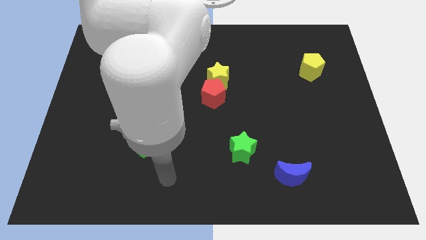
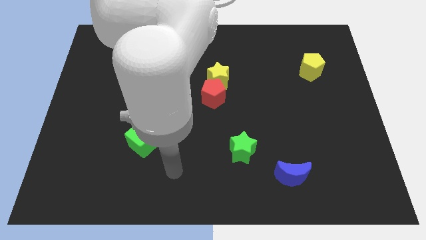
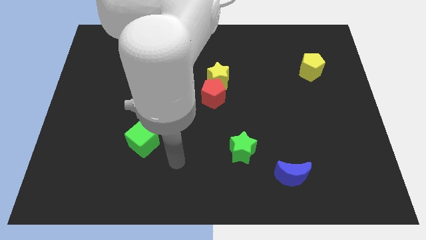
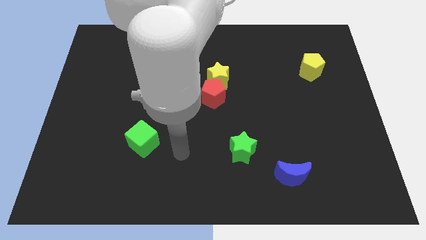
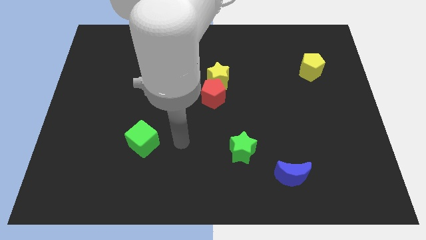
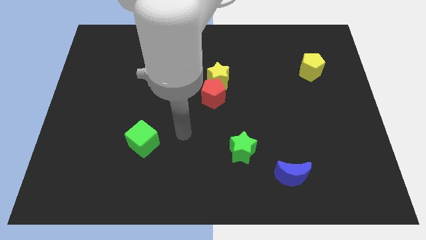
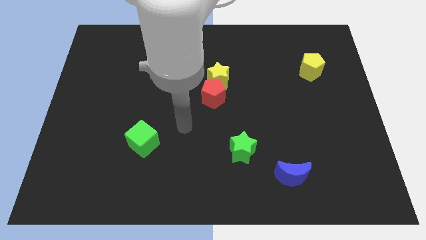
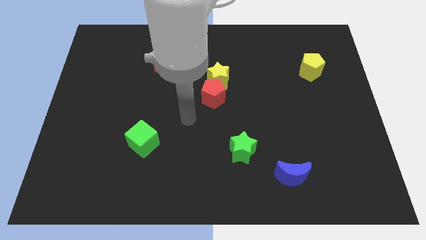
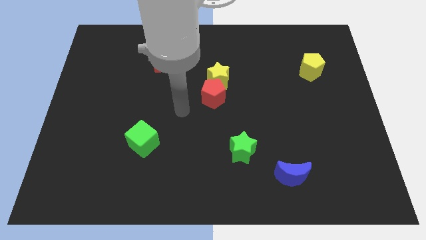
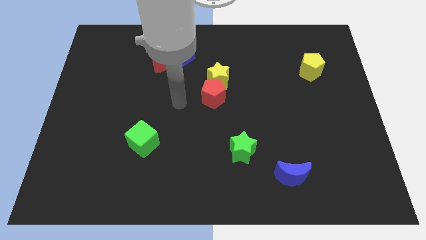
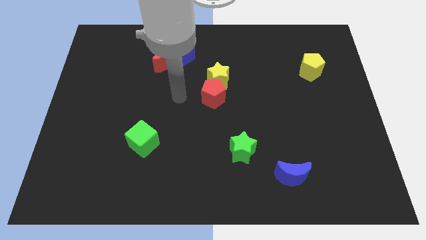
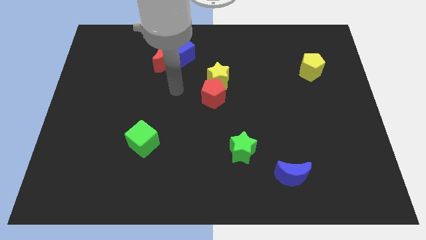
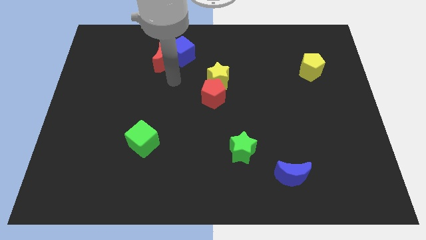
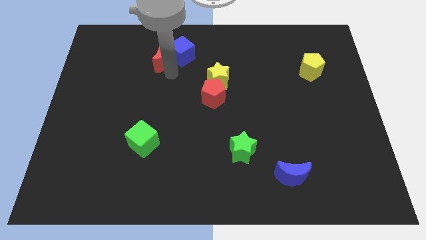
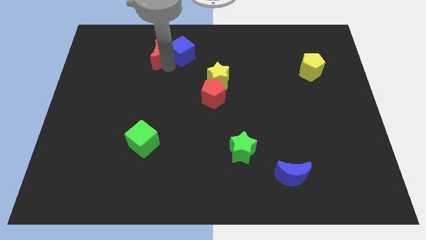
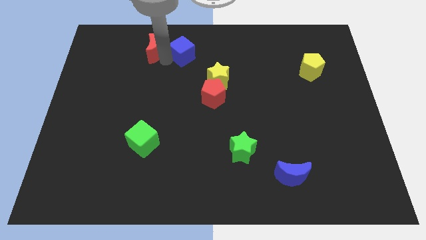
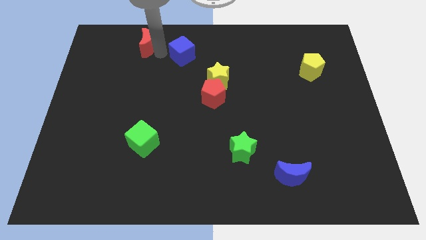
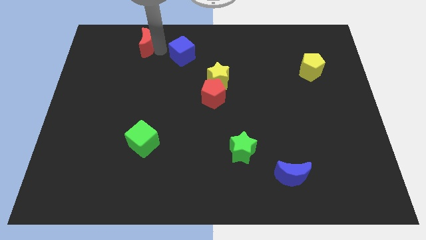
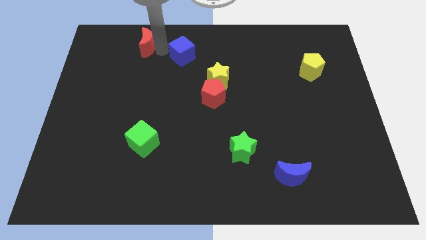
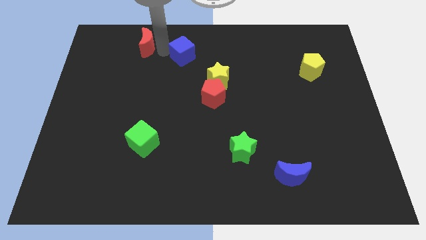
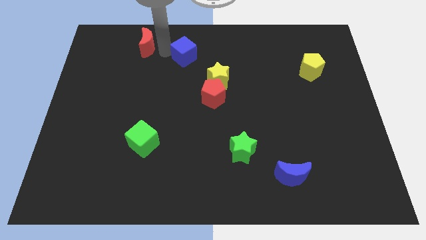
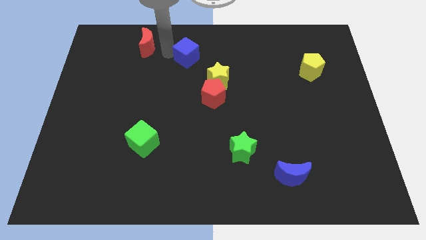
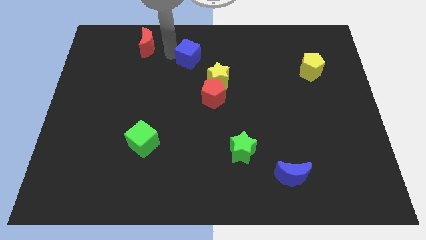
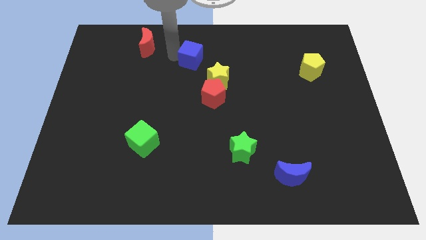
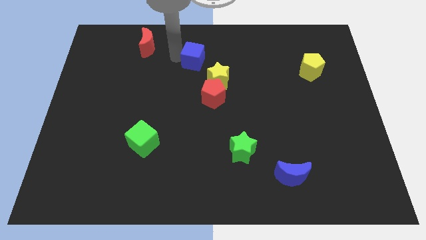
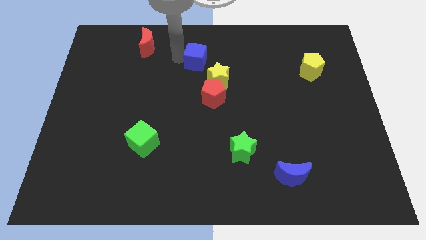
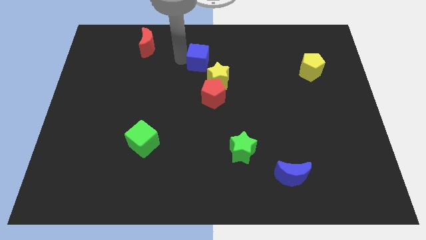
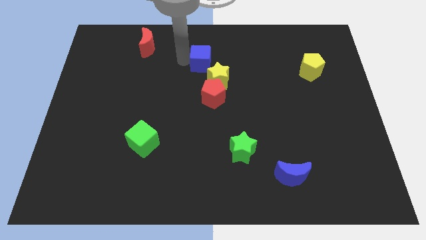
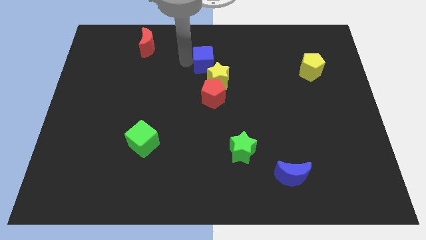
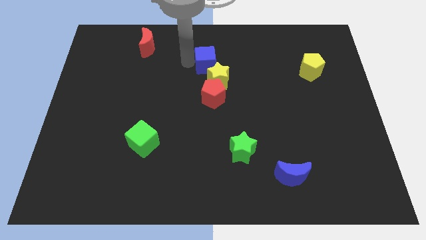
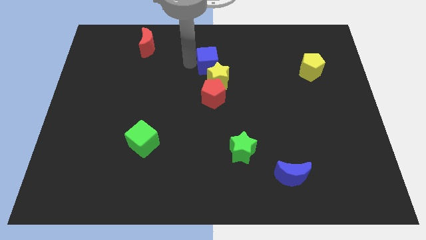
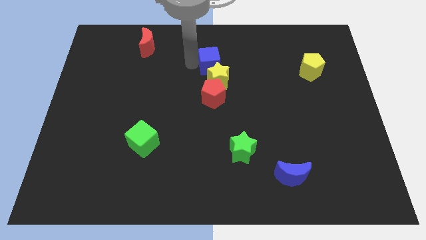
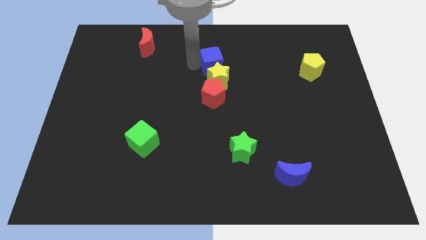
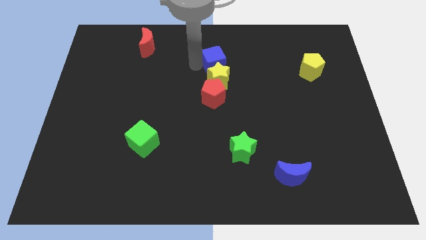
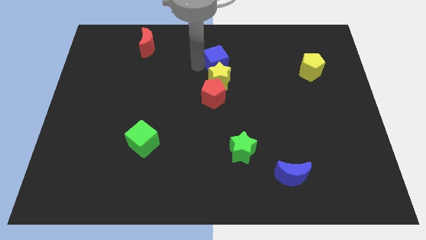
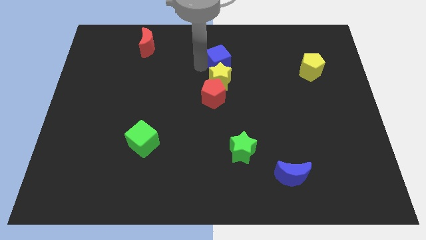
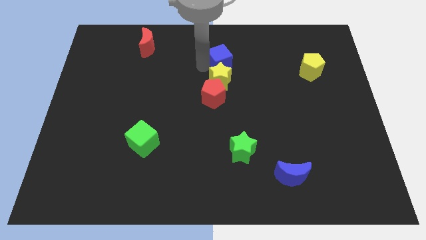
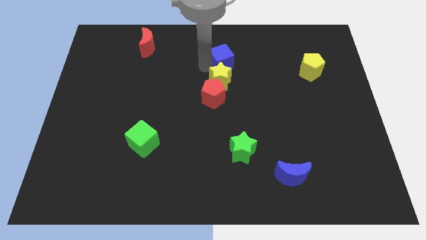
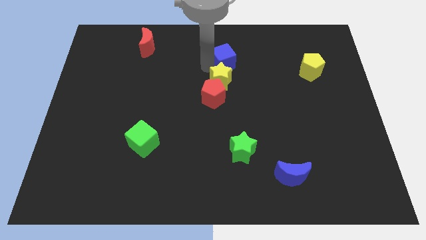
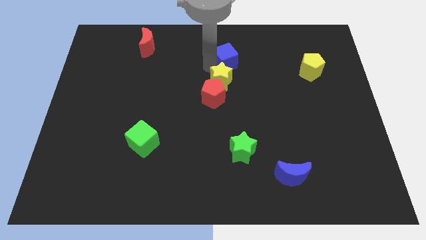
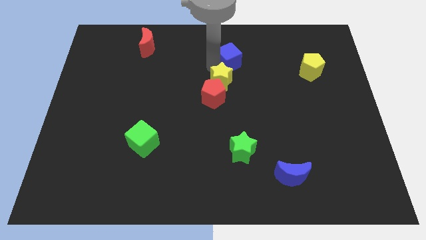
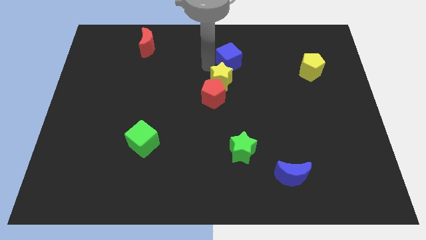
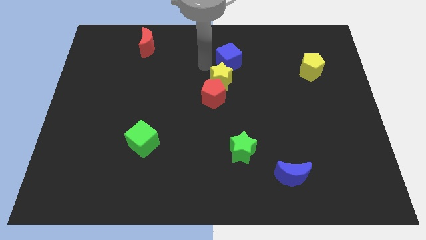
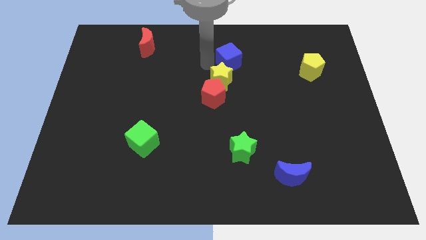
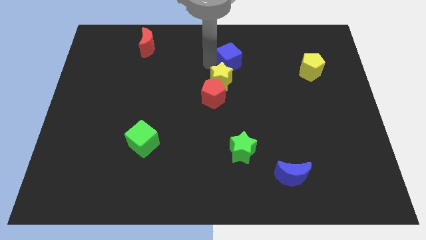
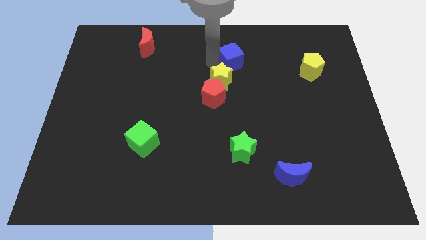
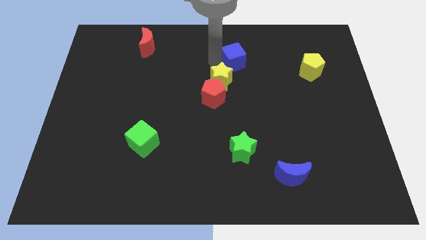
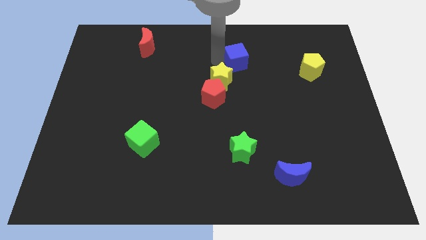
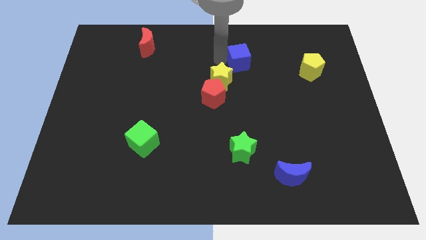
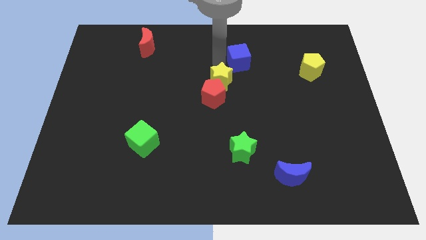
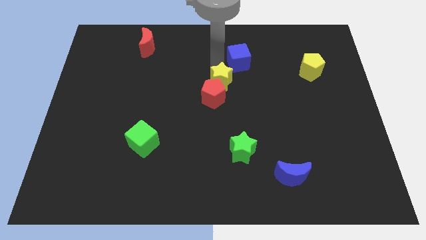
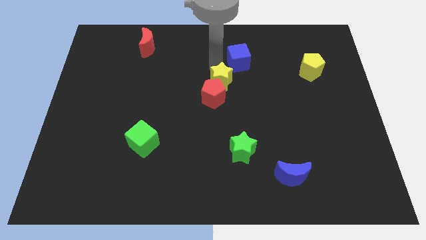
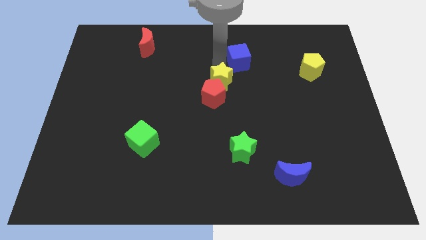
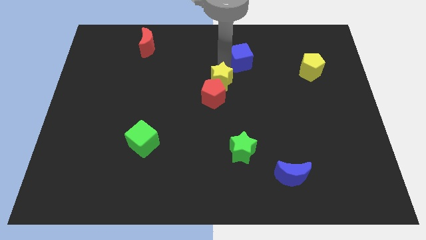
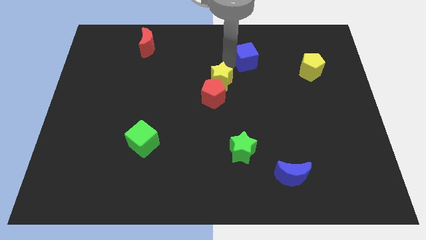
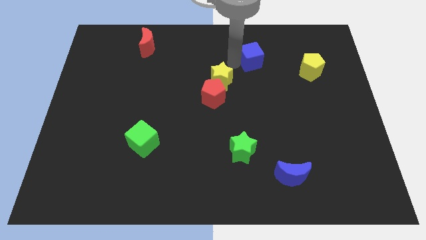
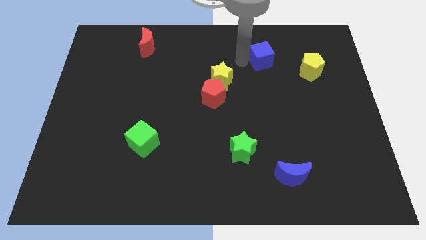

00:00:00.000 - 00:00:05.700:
push the blue cube right

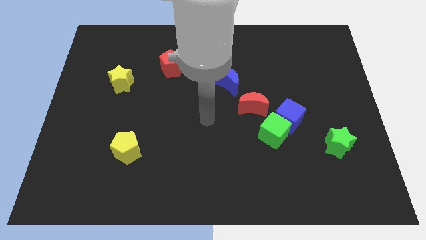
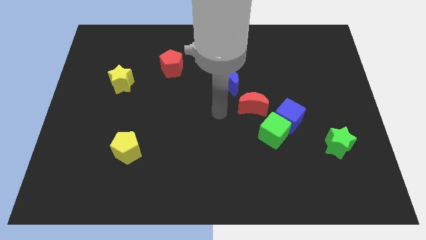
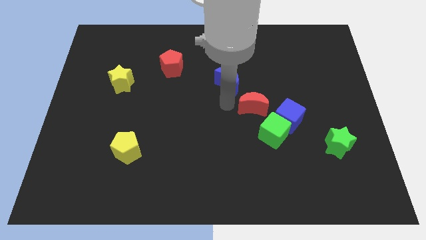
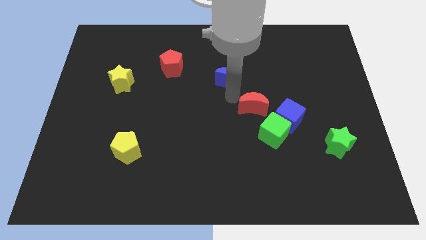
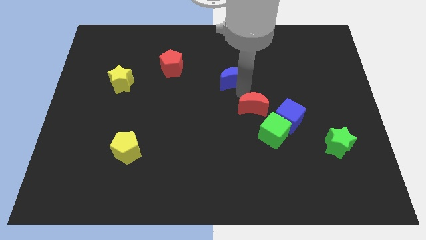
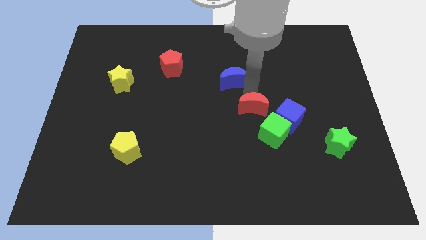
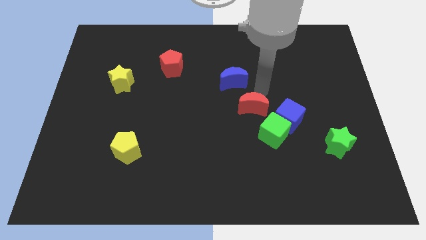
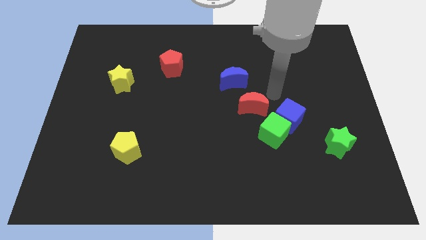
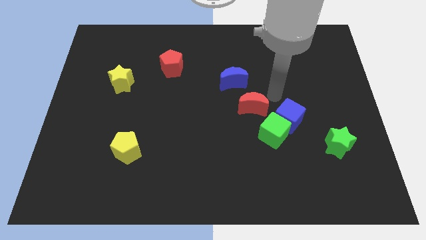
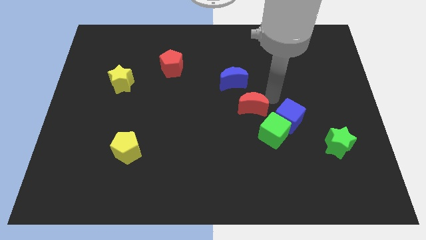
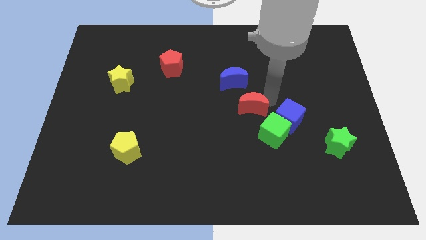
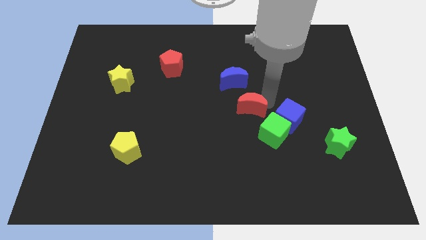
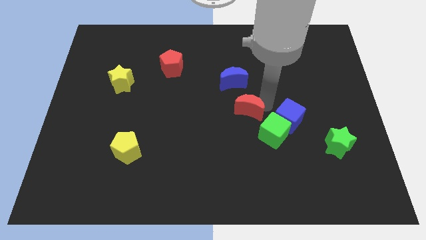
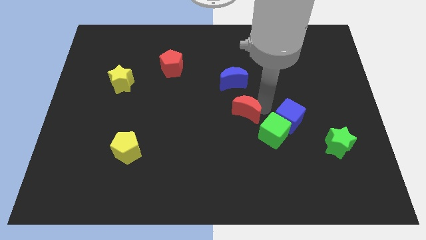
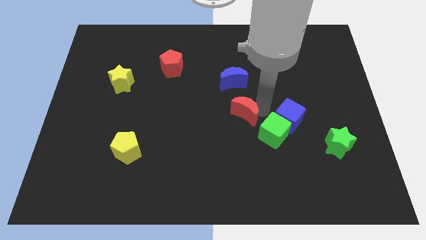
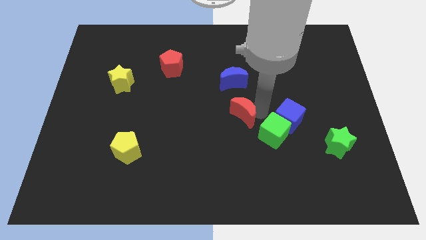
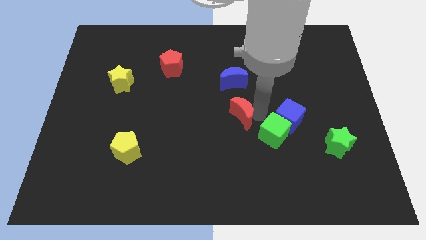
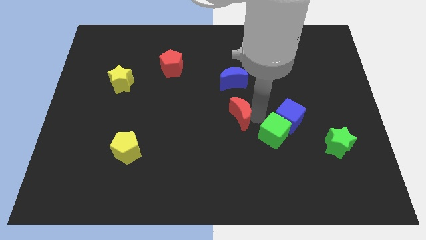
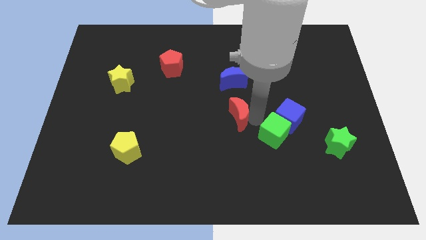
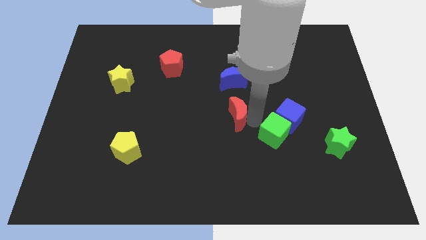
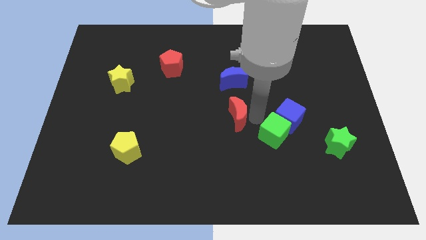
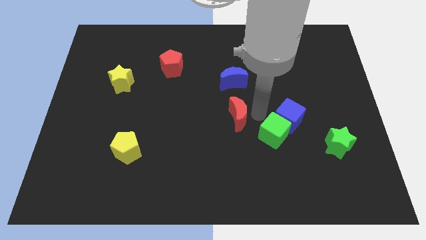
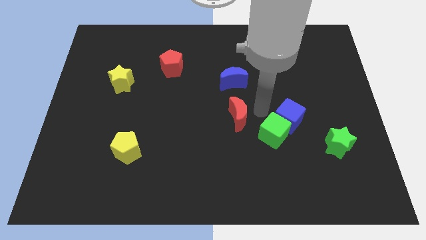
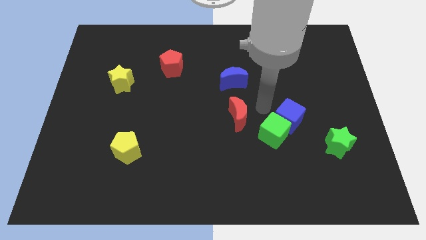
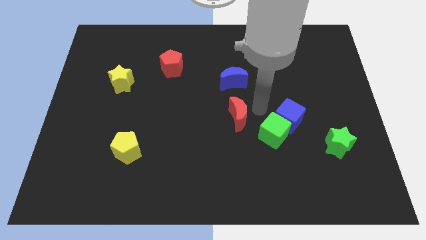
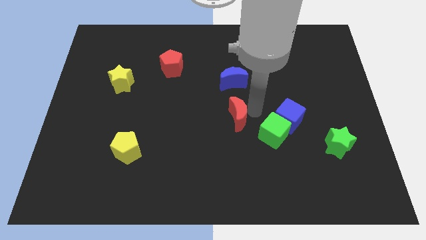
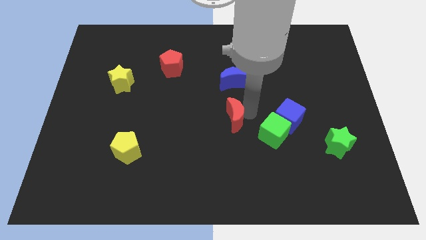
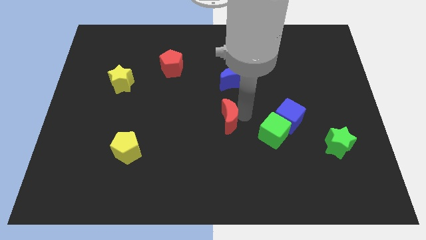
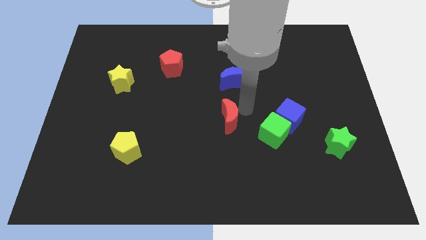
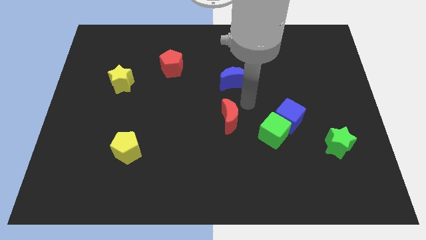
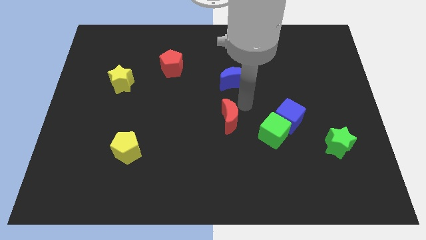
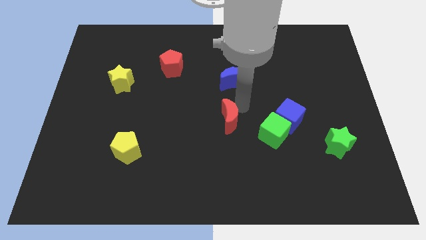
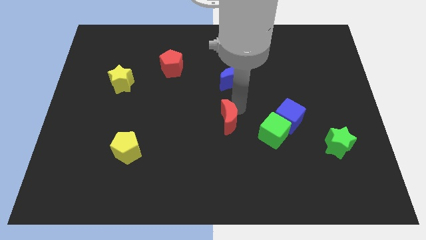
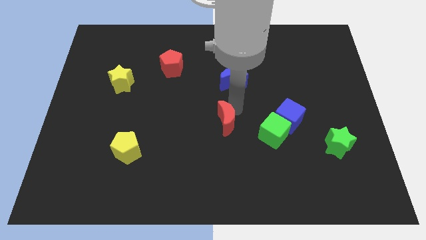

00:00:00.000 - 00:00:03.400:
push the red moon a little bit down and to the left diagonally
